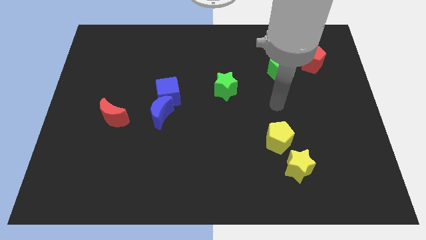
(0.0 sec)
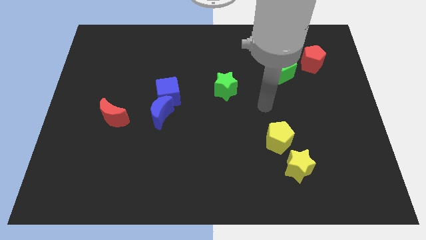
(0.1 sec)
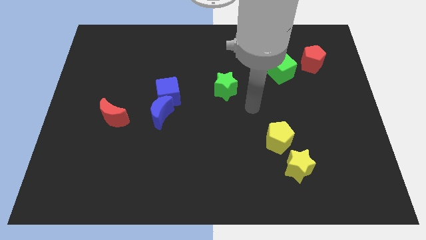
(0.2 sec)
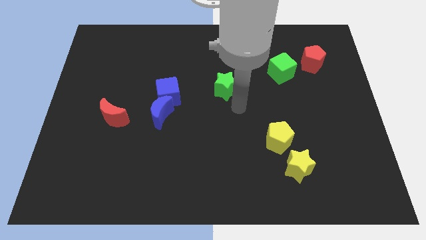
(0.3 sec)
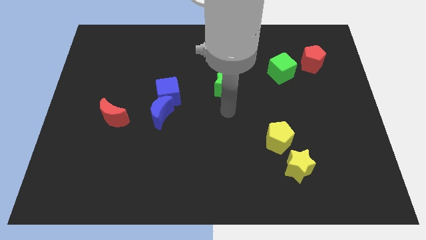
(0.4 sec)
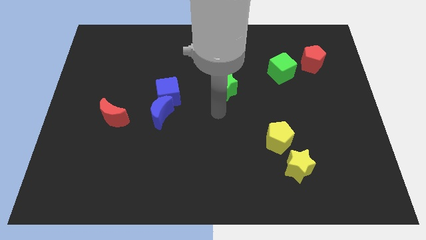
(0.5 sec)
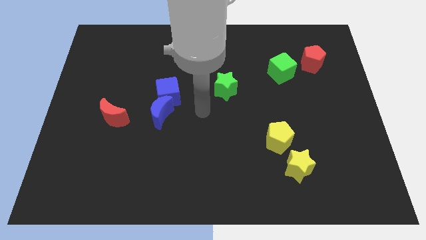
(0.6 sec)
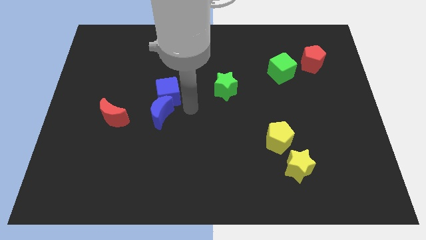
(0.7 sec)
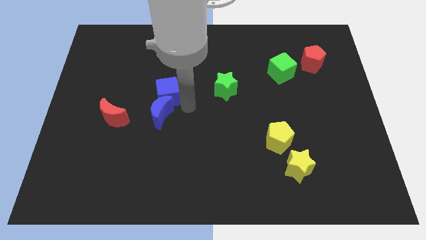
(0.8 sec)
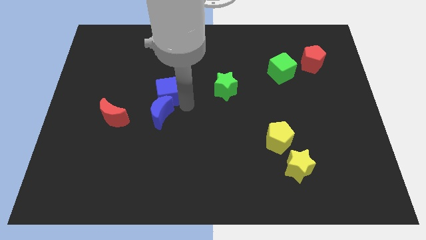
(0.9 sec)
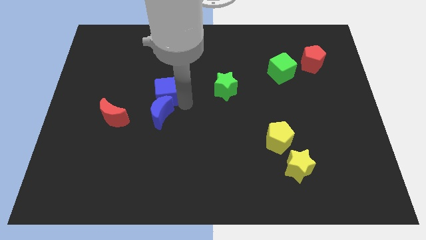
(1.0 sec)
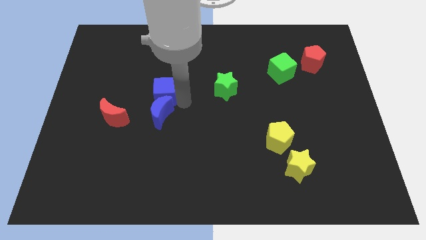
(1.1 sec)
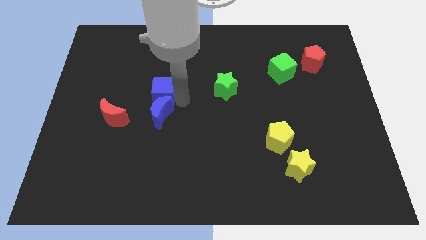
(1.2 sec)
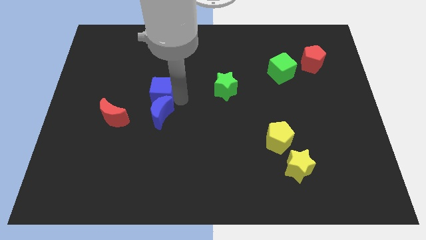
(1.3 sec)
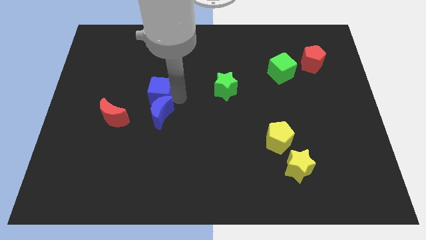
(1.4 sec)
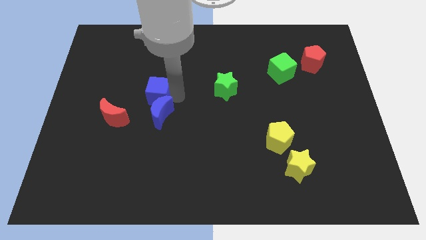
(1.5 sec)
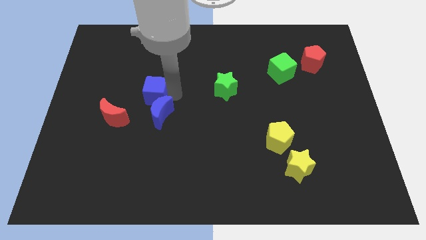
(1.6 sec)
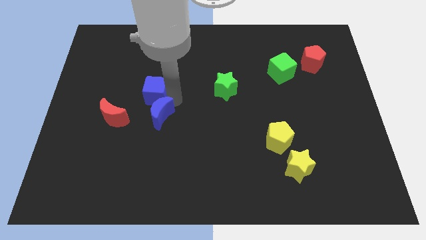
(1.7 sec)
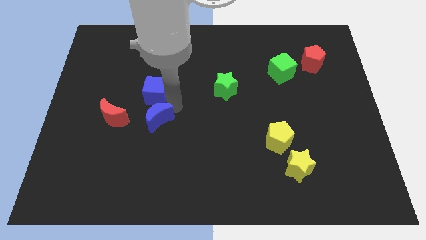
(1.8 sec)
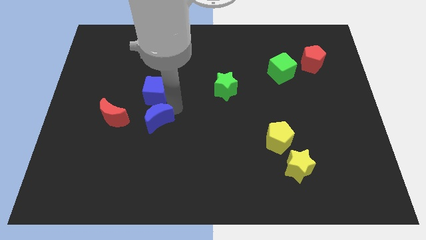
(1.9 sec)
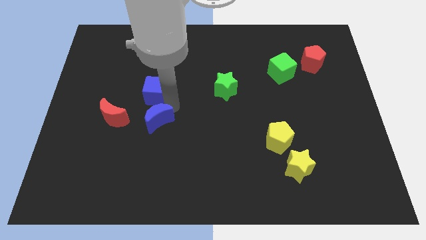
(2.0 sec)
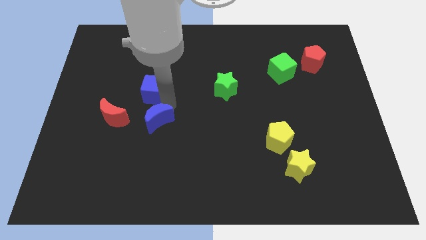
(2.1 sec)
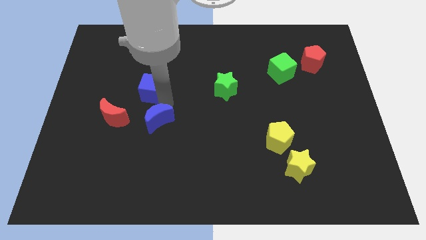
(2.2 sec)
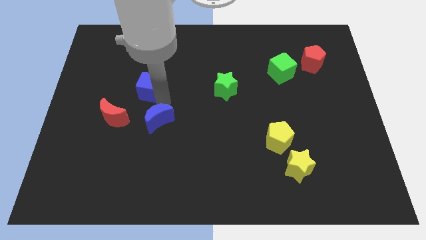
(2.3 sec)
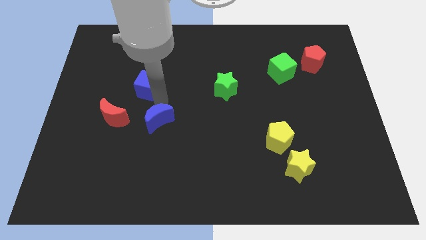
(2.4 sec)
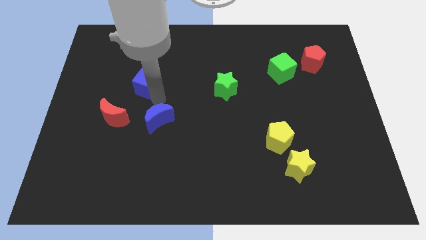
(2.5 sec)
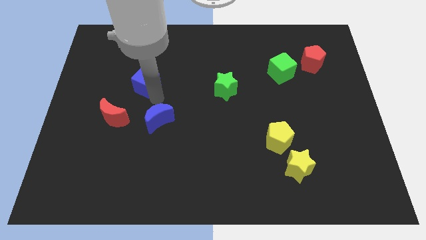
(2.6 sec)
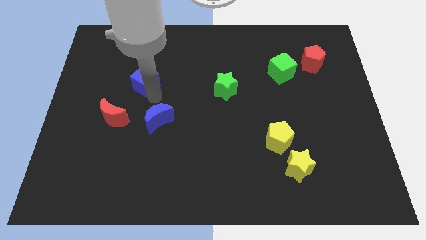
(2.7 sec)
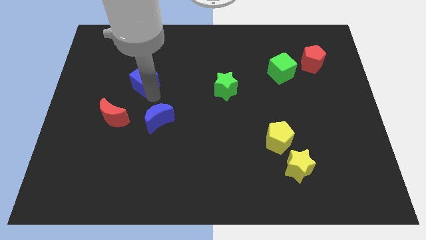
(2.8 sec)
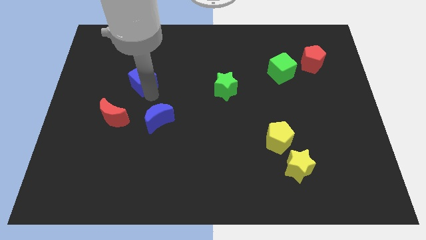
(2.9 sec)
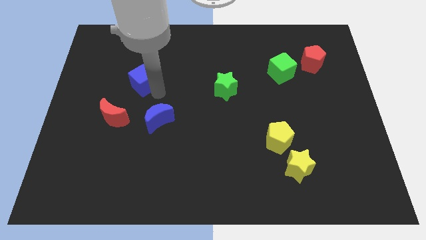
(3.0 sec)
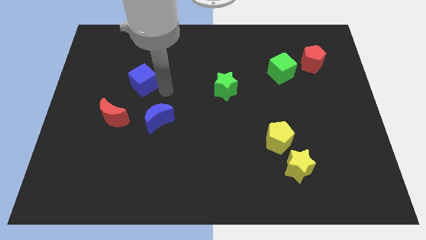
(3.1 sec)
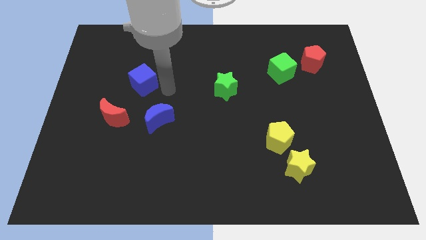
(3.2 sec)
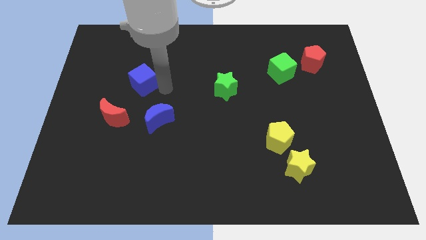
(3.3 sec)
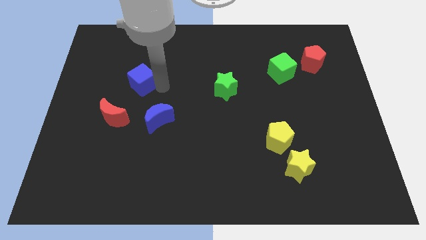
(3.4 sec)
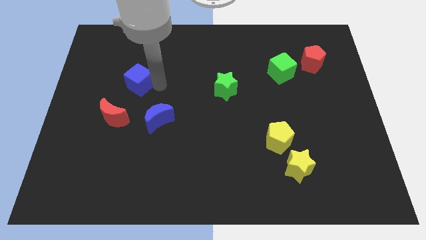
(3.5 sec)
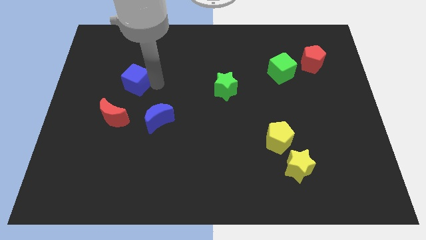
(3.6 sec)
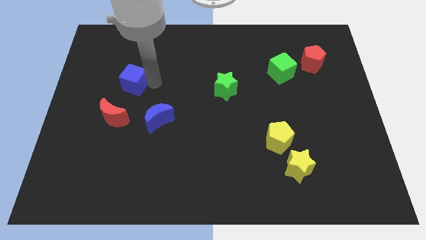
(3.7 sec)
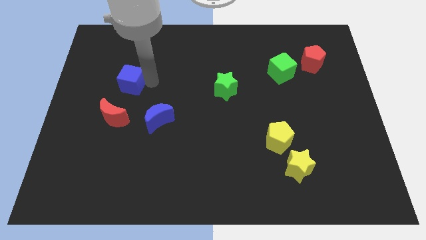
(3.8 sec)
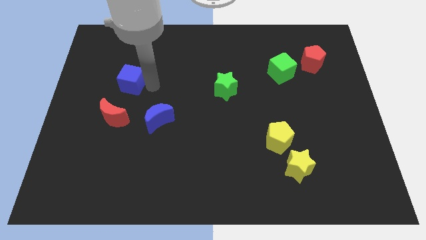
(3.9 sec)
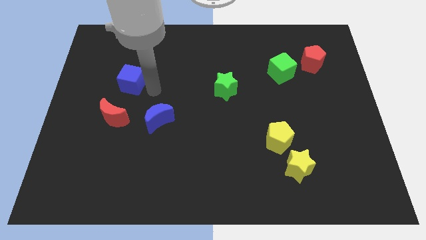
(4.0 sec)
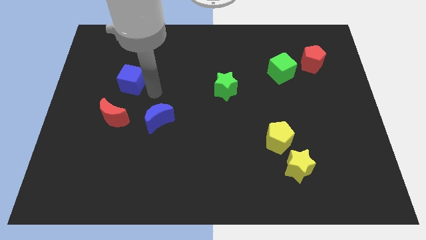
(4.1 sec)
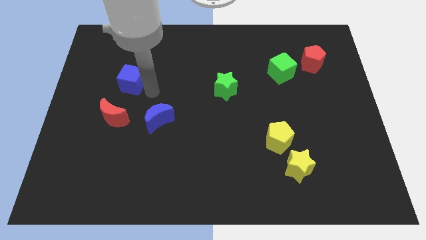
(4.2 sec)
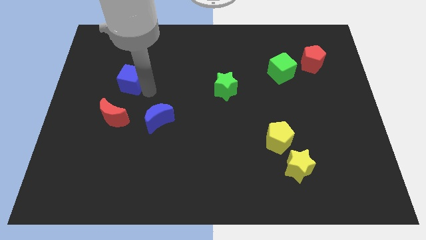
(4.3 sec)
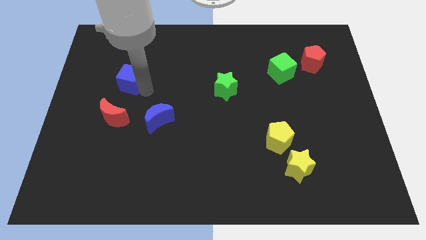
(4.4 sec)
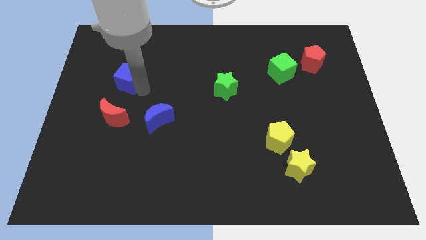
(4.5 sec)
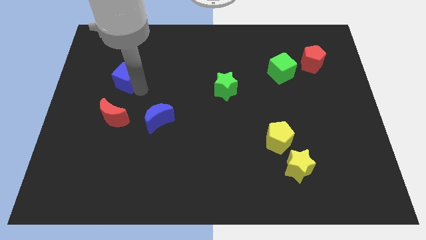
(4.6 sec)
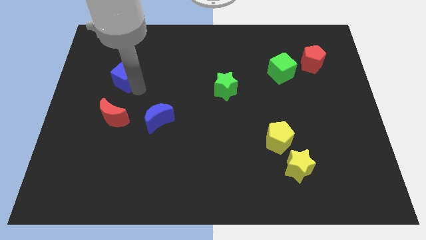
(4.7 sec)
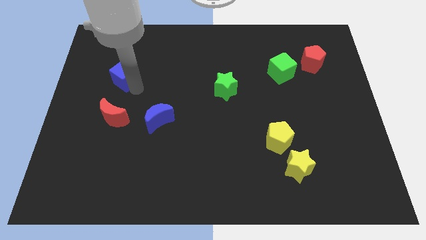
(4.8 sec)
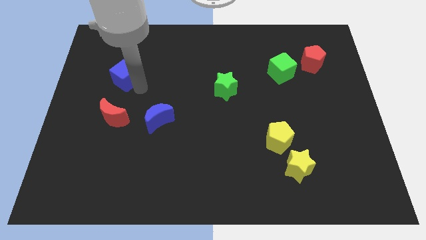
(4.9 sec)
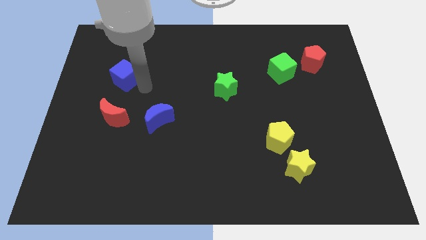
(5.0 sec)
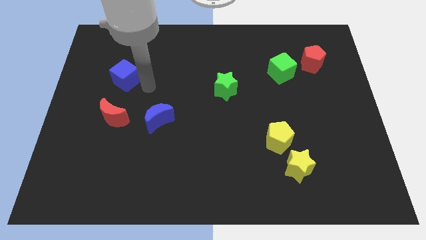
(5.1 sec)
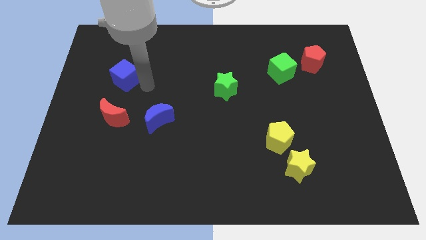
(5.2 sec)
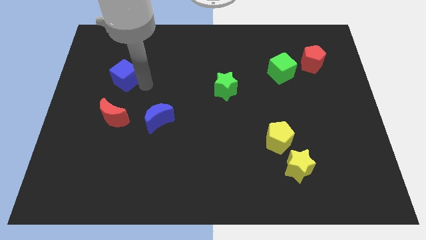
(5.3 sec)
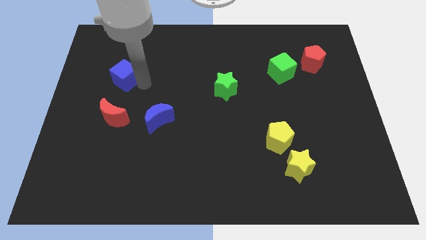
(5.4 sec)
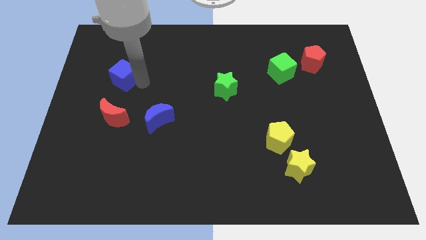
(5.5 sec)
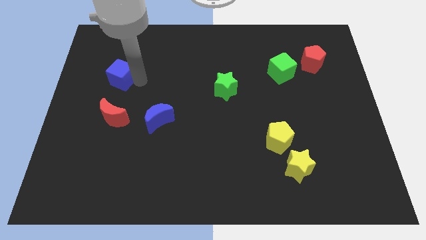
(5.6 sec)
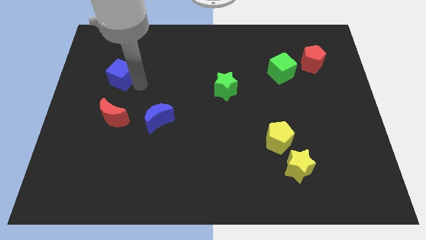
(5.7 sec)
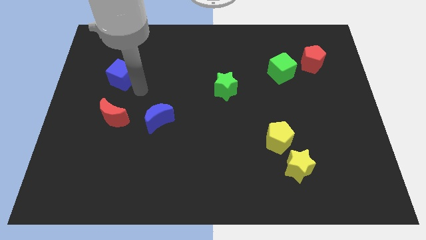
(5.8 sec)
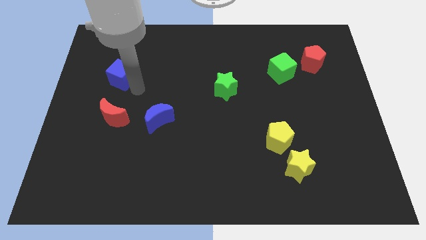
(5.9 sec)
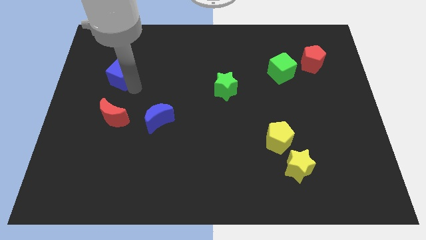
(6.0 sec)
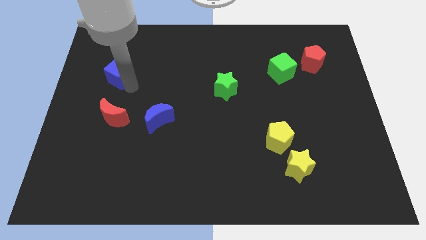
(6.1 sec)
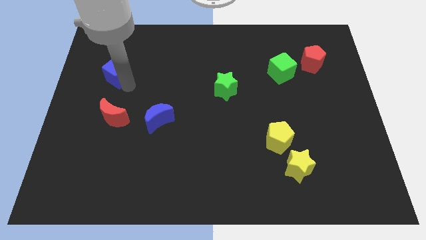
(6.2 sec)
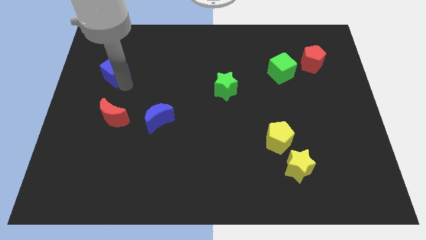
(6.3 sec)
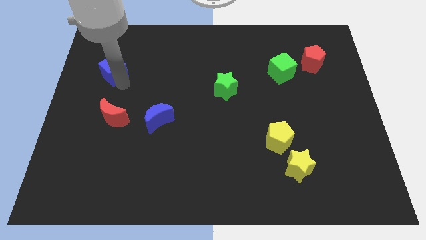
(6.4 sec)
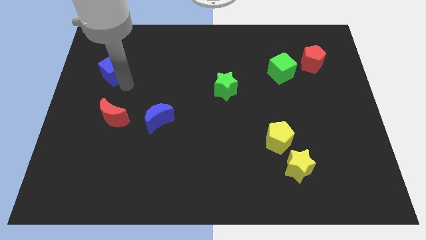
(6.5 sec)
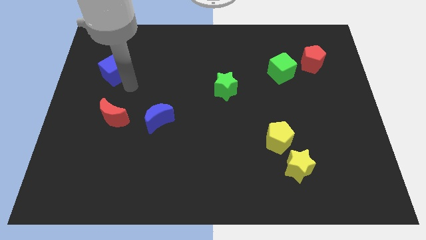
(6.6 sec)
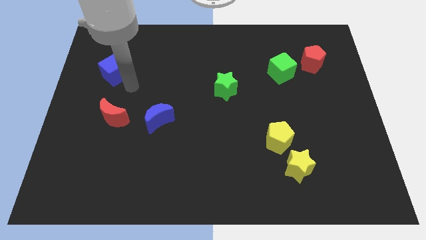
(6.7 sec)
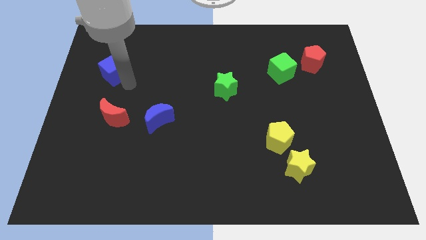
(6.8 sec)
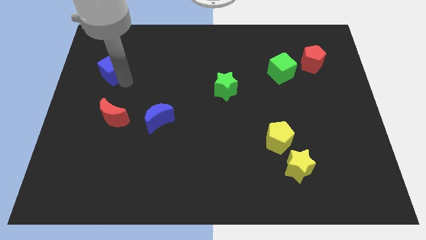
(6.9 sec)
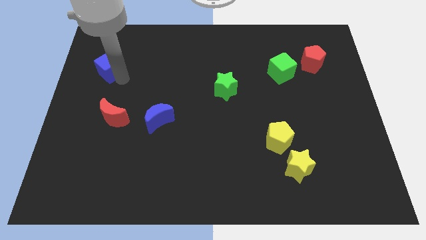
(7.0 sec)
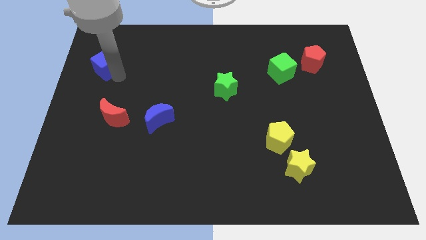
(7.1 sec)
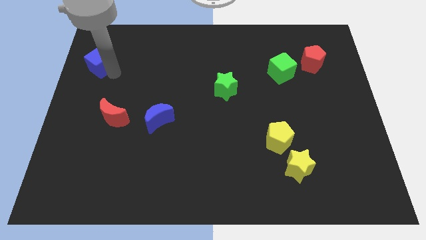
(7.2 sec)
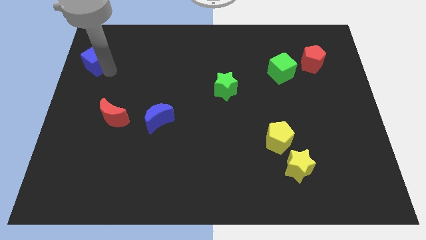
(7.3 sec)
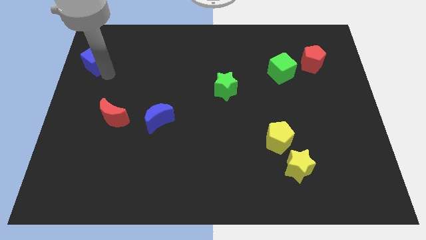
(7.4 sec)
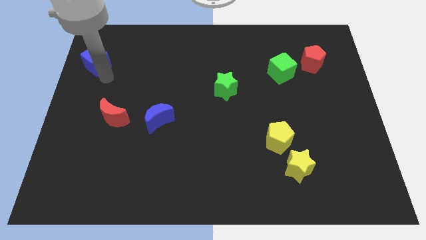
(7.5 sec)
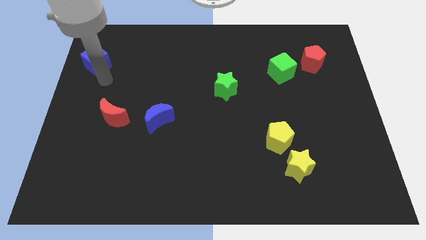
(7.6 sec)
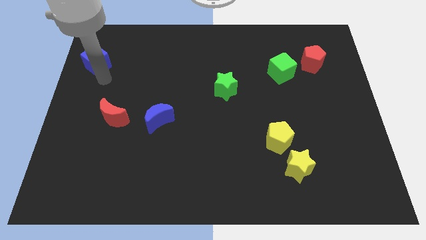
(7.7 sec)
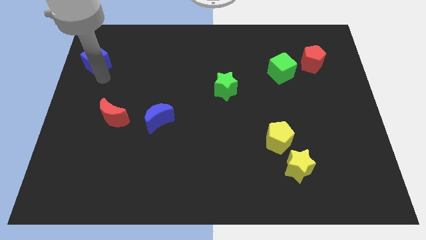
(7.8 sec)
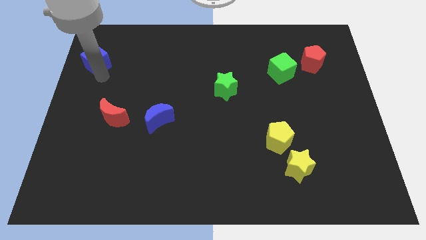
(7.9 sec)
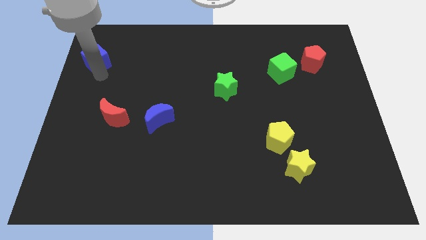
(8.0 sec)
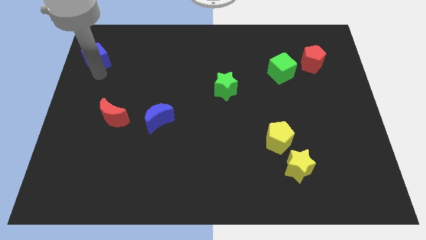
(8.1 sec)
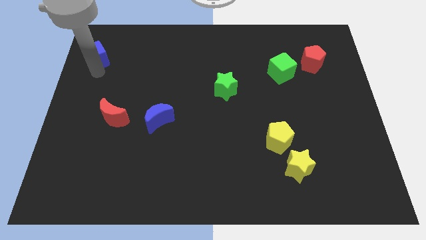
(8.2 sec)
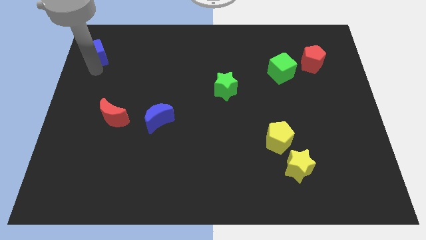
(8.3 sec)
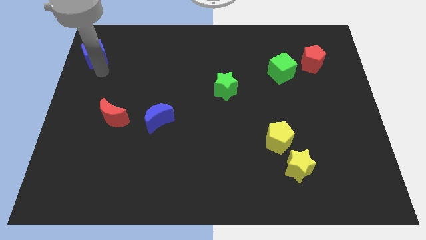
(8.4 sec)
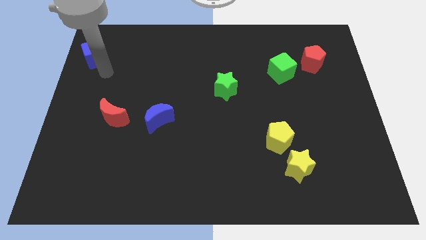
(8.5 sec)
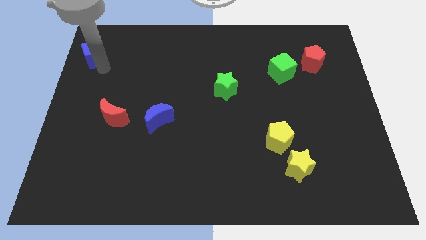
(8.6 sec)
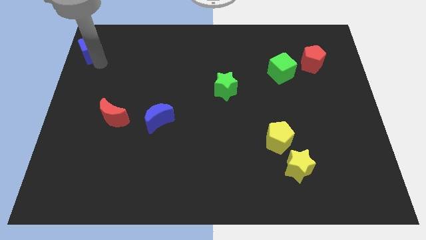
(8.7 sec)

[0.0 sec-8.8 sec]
slide the blue cube to the top left corner
